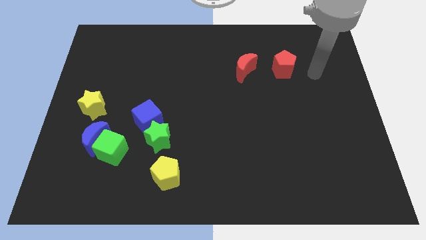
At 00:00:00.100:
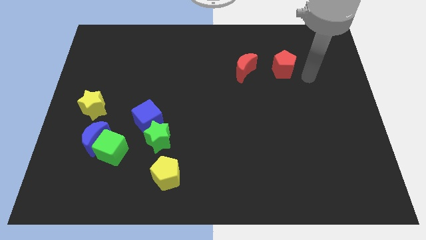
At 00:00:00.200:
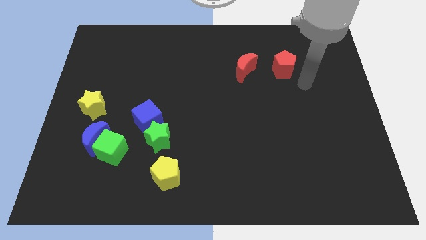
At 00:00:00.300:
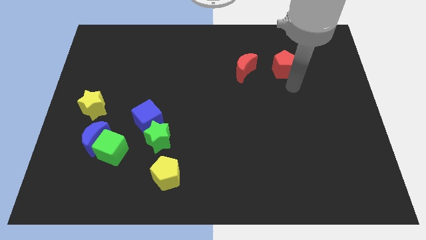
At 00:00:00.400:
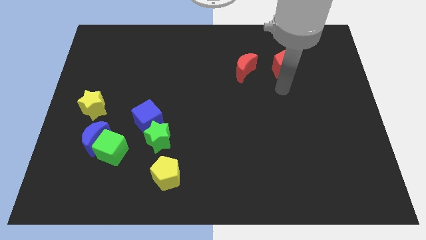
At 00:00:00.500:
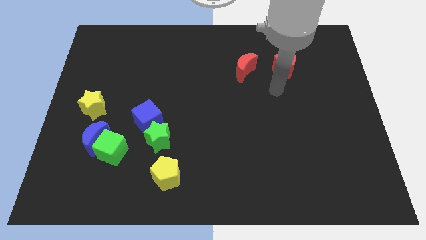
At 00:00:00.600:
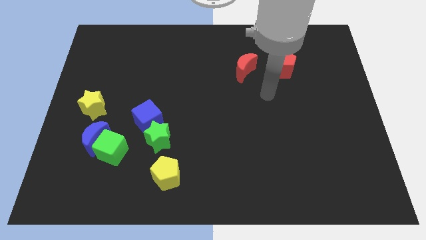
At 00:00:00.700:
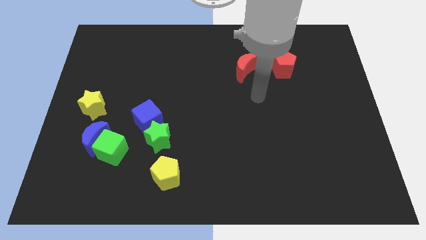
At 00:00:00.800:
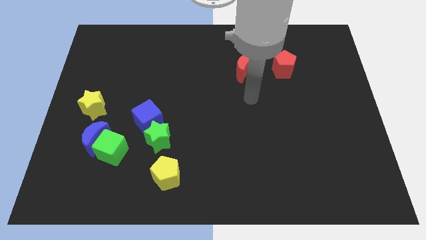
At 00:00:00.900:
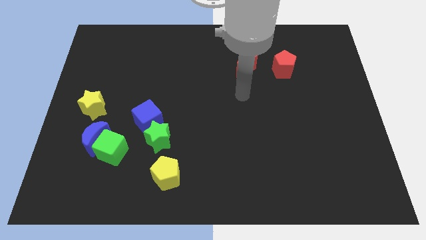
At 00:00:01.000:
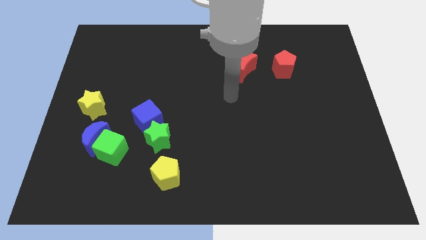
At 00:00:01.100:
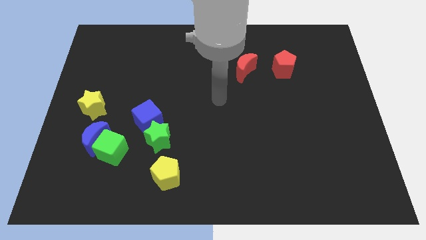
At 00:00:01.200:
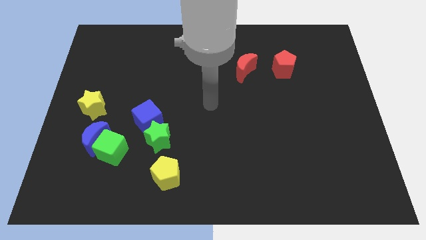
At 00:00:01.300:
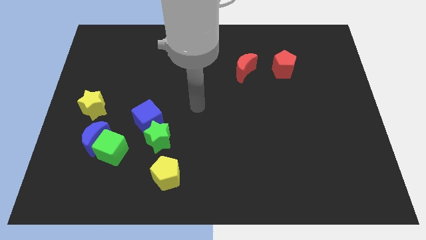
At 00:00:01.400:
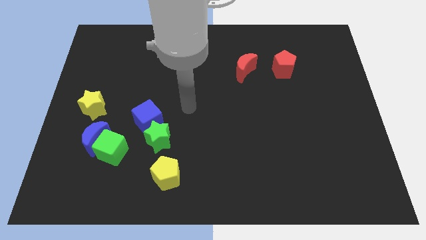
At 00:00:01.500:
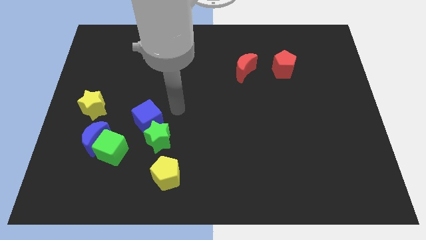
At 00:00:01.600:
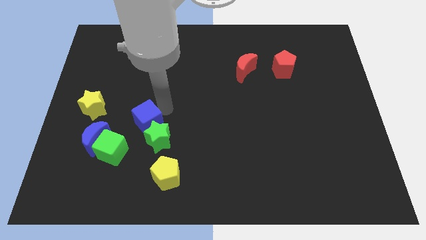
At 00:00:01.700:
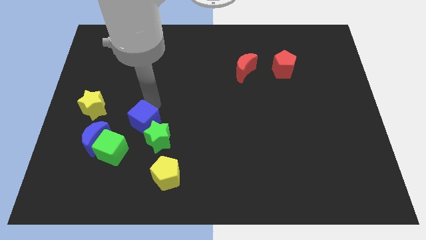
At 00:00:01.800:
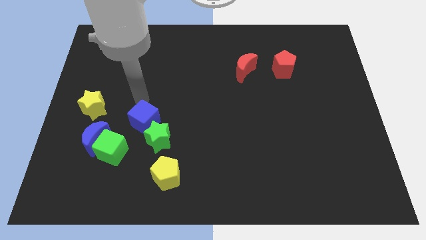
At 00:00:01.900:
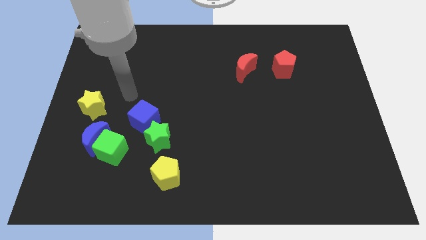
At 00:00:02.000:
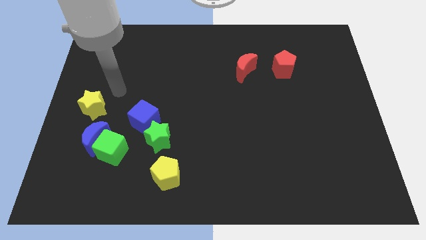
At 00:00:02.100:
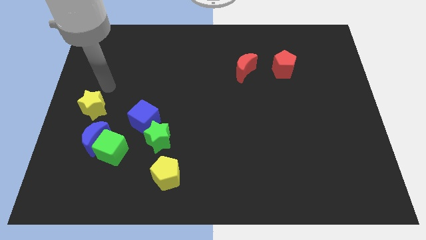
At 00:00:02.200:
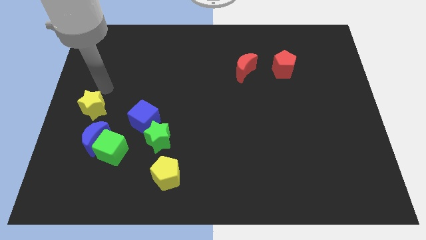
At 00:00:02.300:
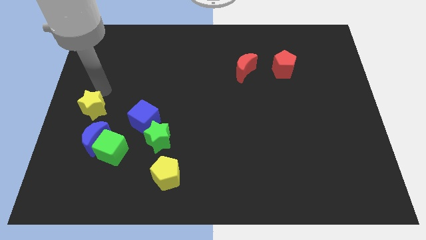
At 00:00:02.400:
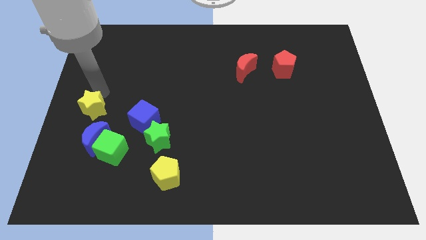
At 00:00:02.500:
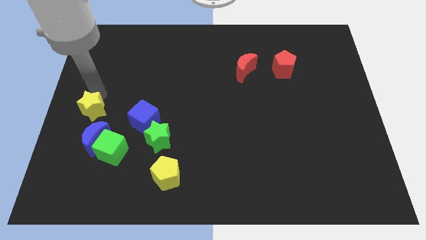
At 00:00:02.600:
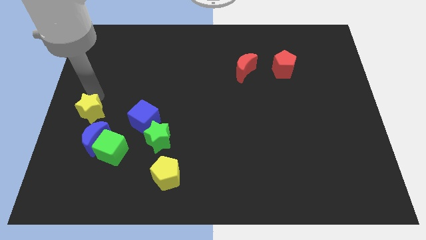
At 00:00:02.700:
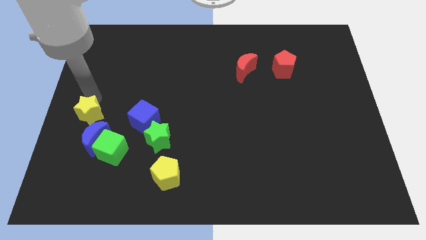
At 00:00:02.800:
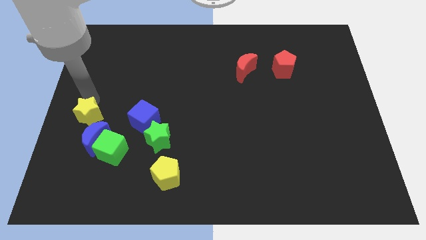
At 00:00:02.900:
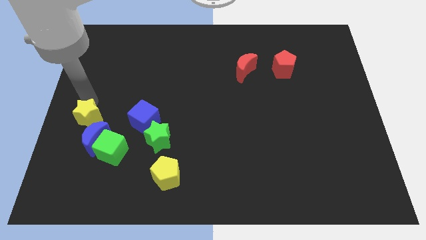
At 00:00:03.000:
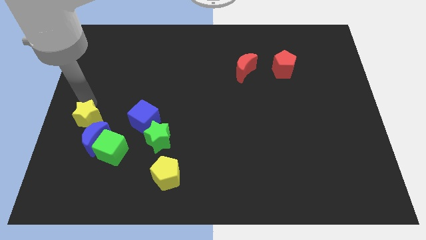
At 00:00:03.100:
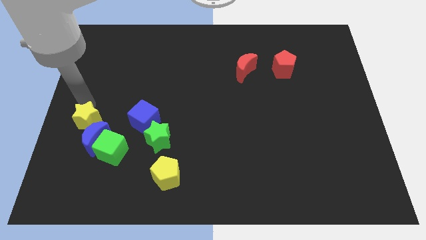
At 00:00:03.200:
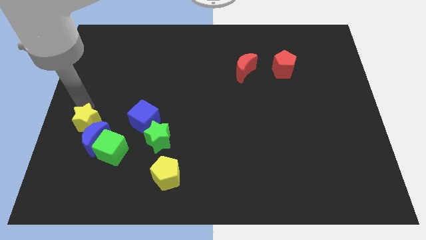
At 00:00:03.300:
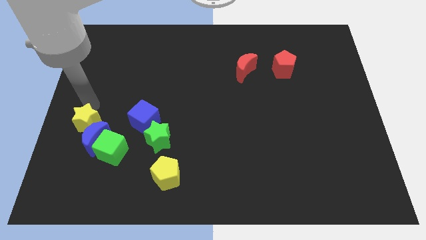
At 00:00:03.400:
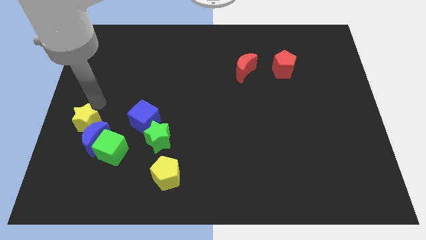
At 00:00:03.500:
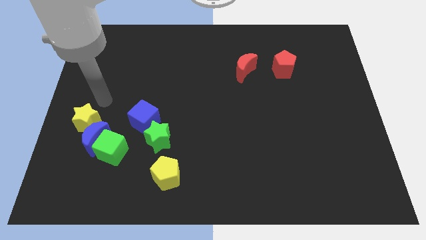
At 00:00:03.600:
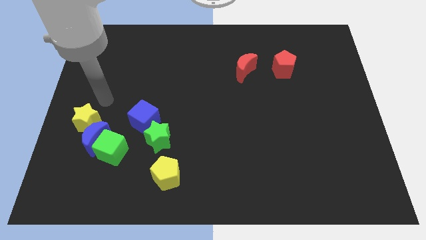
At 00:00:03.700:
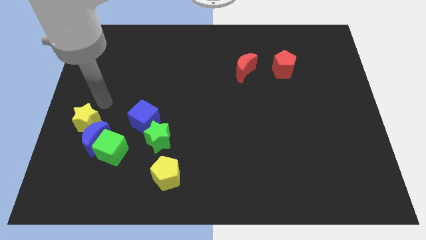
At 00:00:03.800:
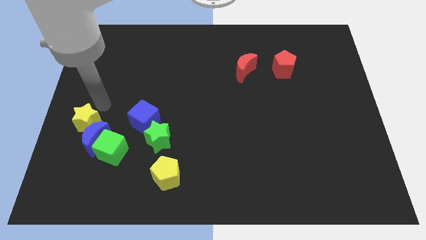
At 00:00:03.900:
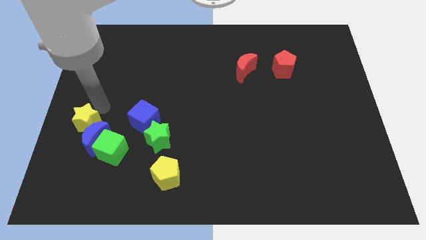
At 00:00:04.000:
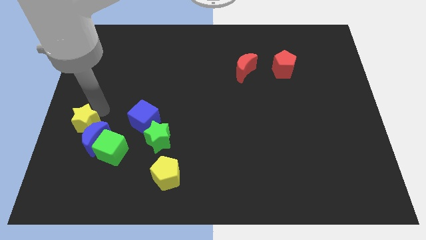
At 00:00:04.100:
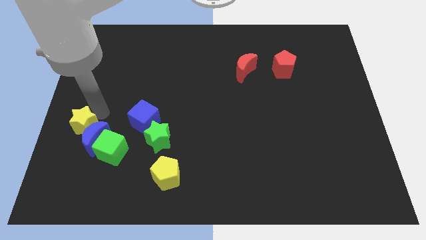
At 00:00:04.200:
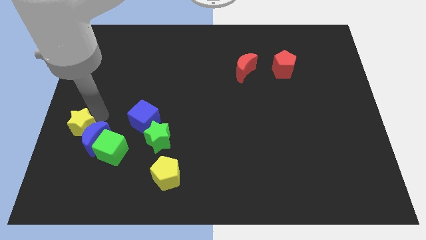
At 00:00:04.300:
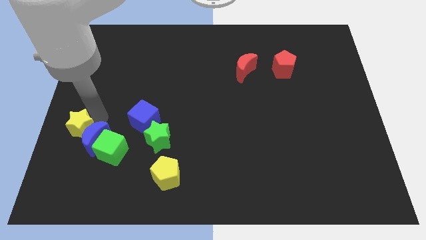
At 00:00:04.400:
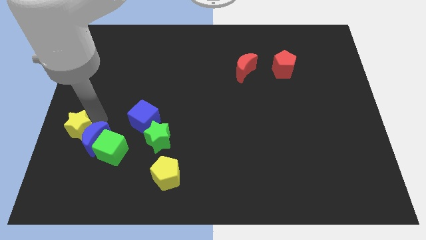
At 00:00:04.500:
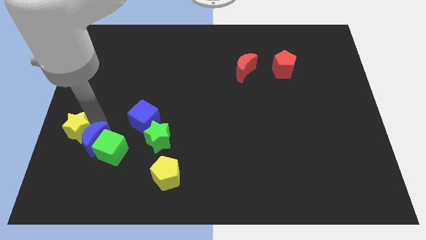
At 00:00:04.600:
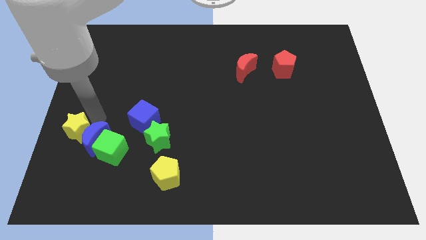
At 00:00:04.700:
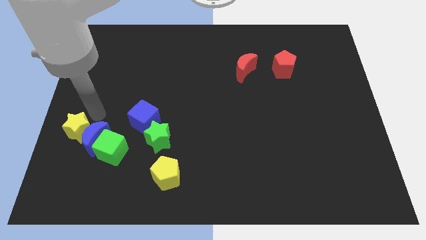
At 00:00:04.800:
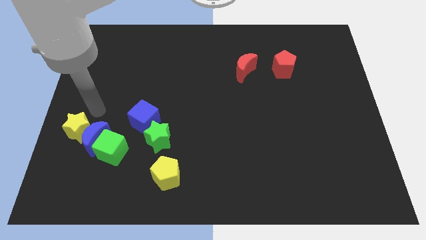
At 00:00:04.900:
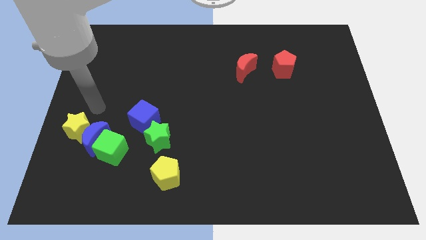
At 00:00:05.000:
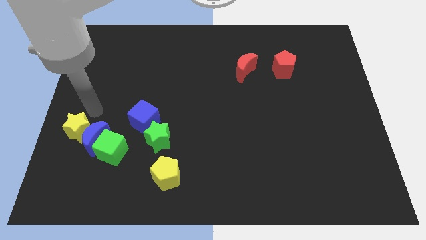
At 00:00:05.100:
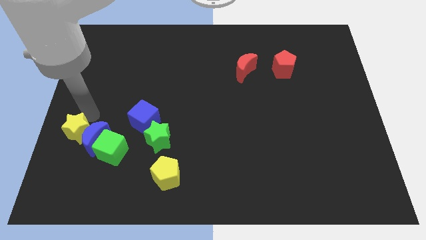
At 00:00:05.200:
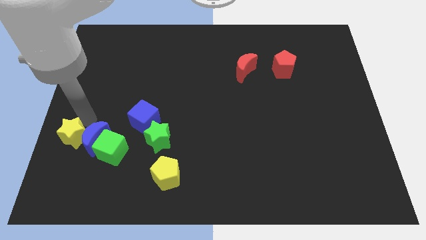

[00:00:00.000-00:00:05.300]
move the yellow star downwards slightly

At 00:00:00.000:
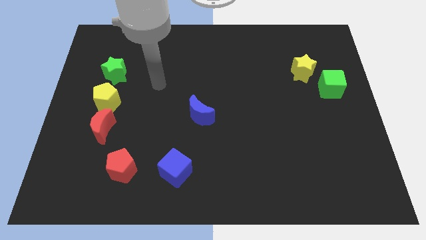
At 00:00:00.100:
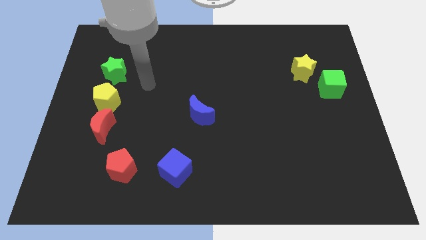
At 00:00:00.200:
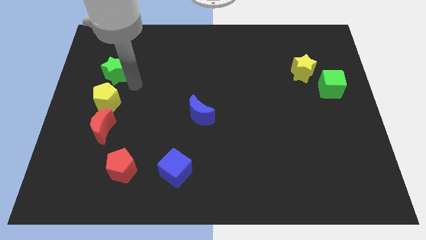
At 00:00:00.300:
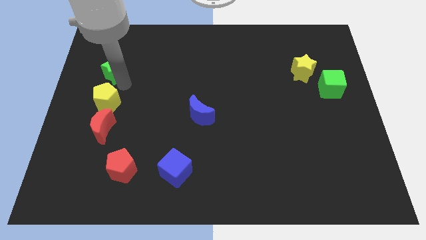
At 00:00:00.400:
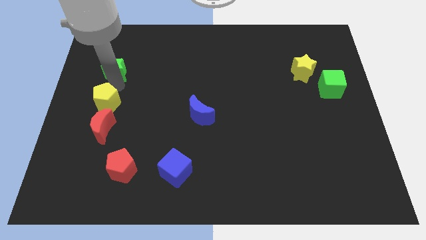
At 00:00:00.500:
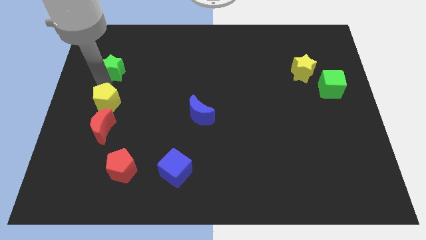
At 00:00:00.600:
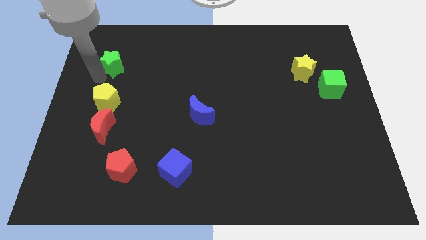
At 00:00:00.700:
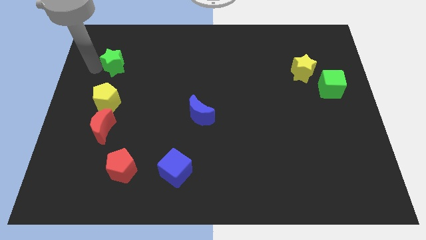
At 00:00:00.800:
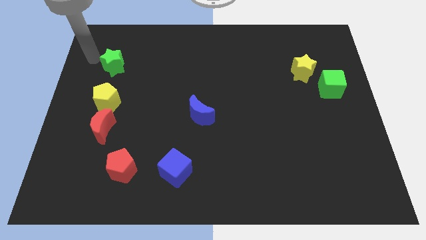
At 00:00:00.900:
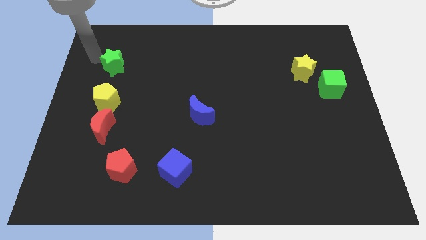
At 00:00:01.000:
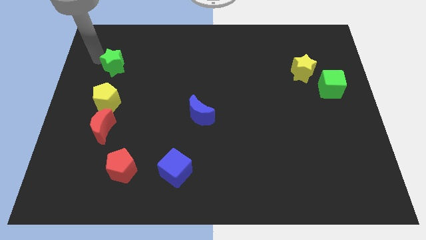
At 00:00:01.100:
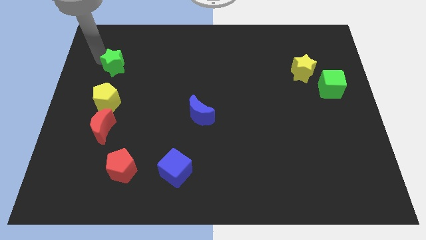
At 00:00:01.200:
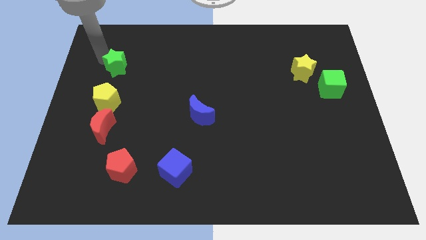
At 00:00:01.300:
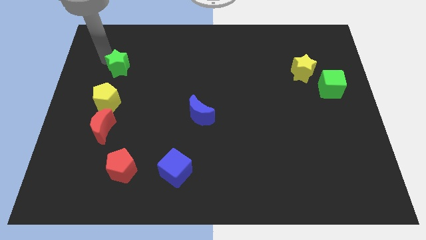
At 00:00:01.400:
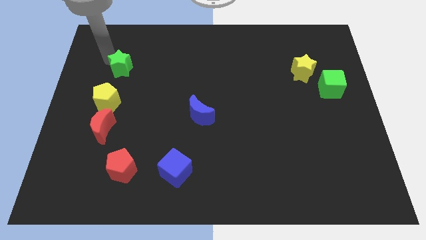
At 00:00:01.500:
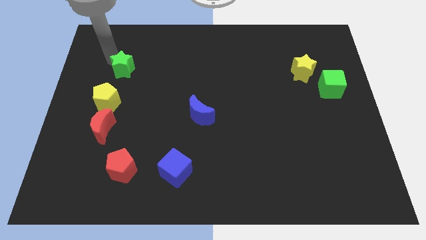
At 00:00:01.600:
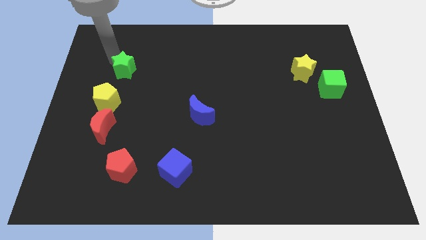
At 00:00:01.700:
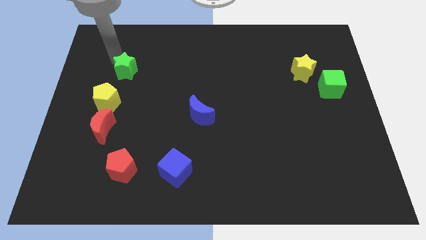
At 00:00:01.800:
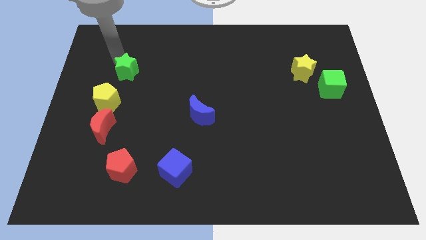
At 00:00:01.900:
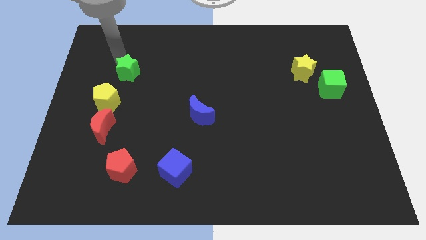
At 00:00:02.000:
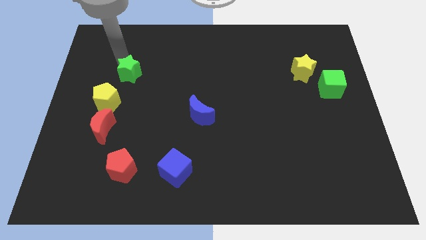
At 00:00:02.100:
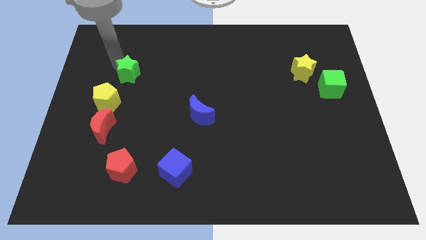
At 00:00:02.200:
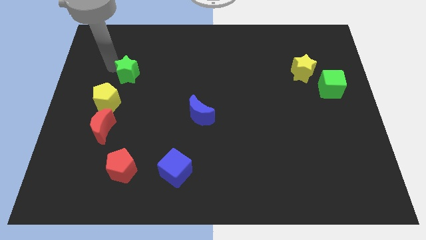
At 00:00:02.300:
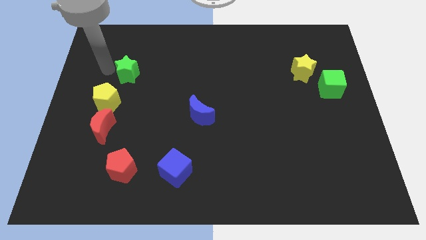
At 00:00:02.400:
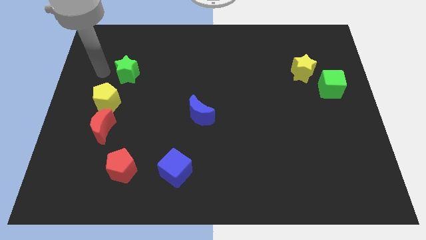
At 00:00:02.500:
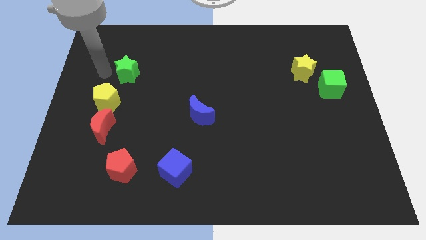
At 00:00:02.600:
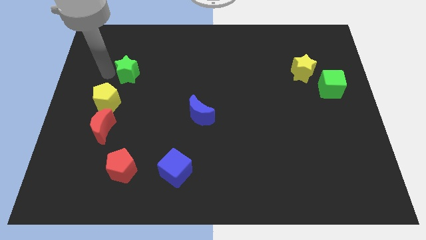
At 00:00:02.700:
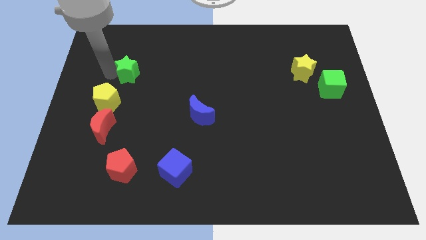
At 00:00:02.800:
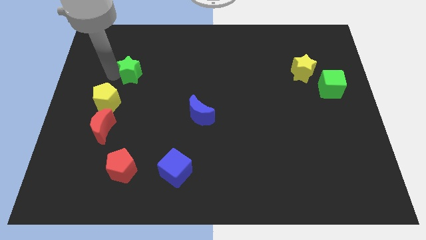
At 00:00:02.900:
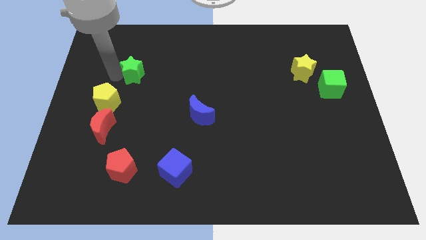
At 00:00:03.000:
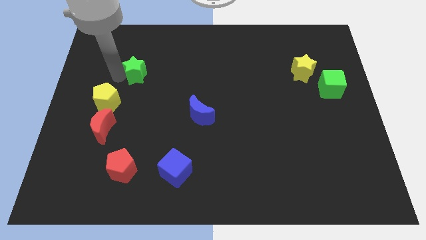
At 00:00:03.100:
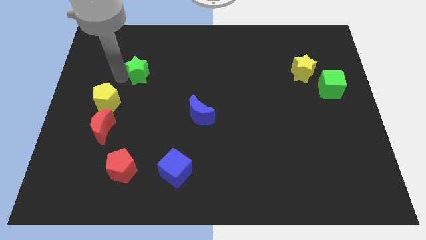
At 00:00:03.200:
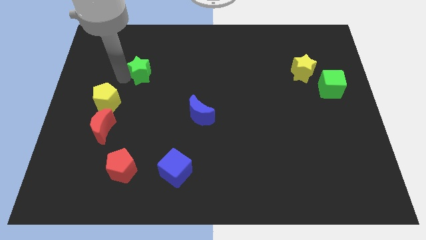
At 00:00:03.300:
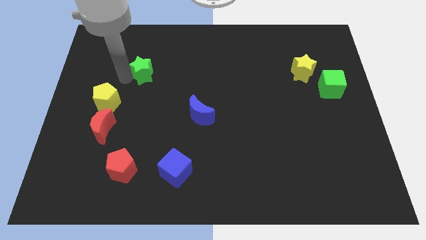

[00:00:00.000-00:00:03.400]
slide the green star somewhat to the right
